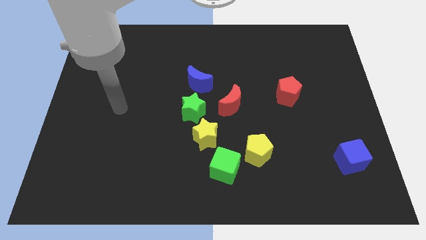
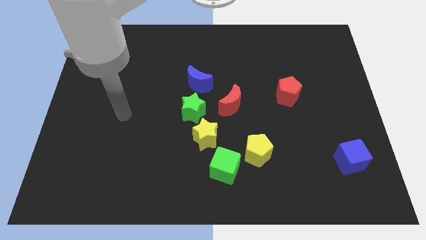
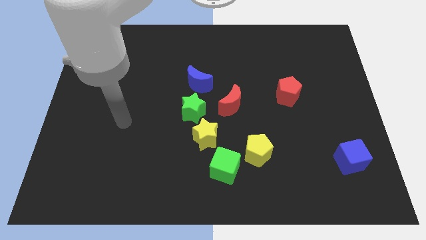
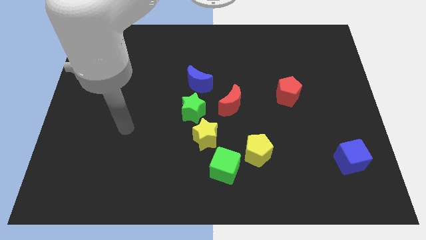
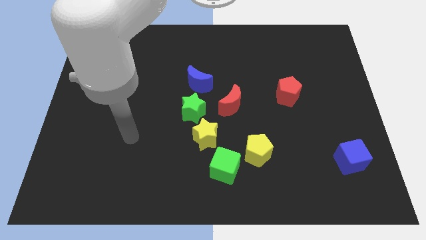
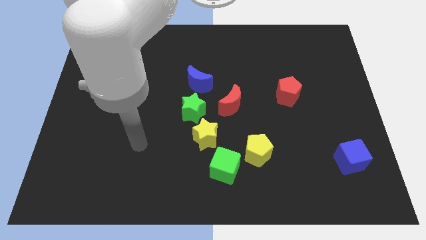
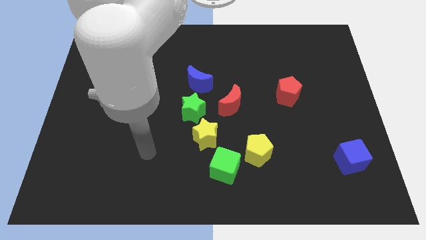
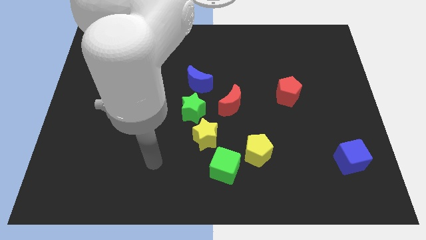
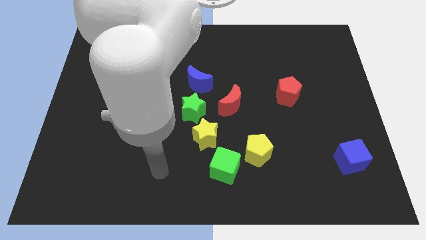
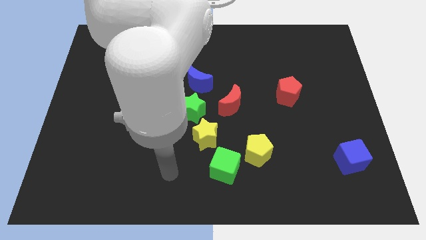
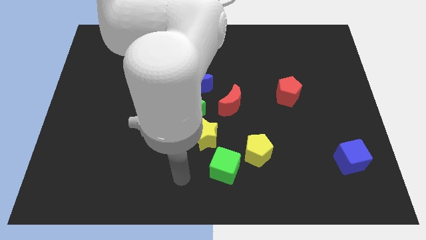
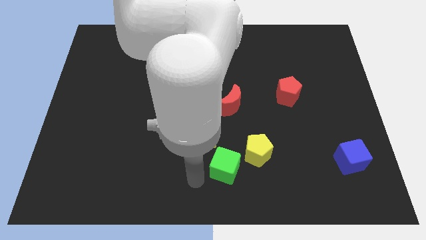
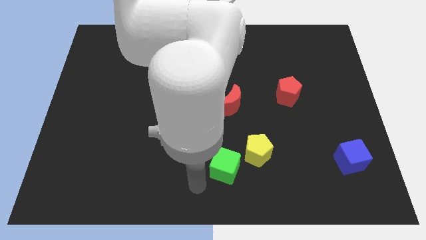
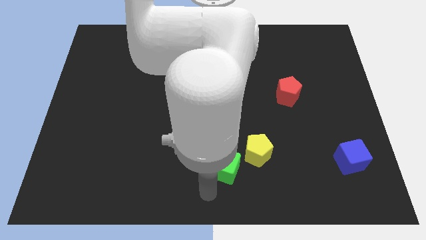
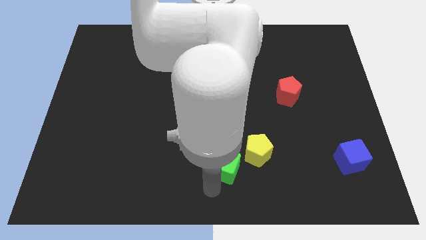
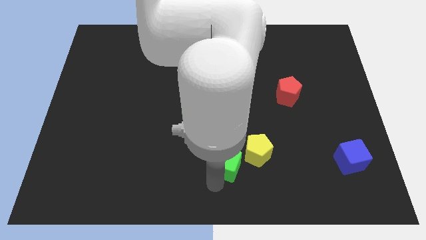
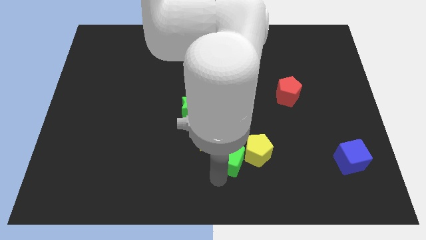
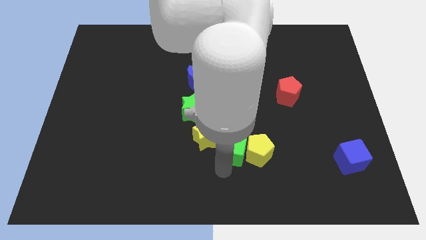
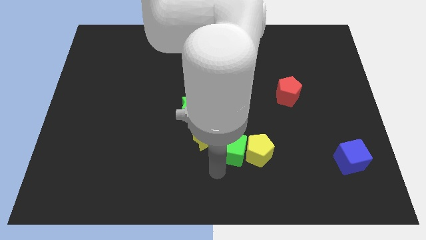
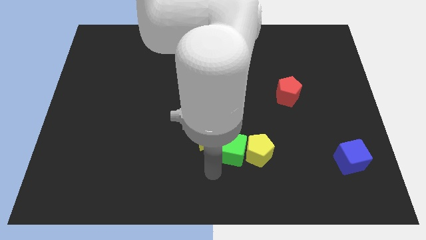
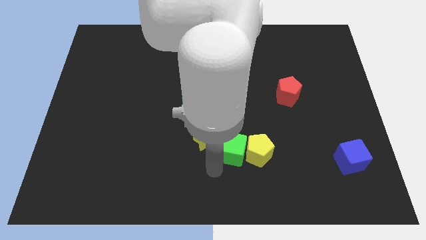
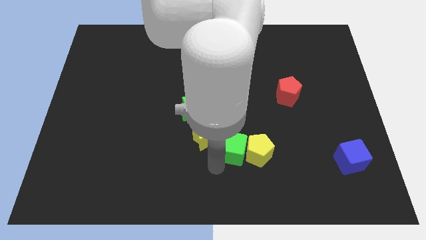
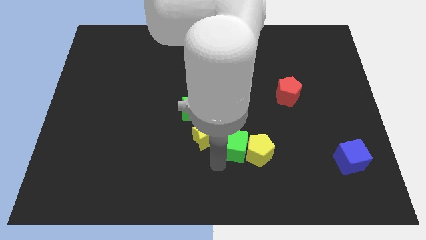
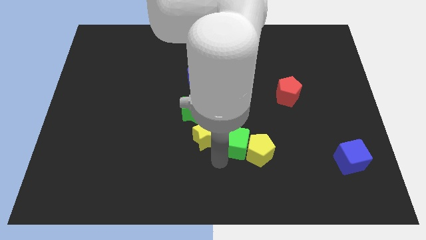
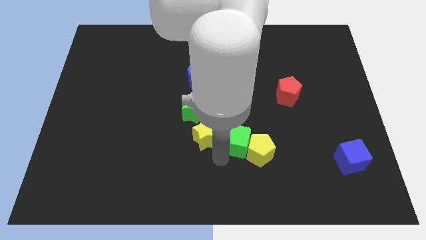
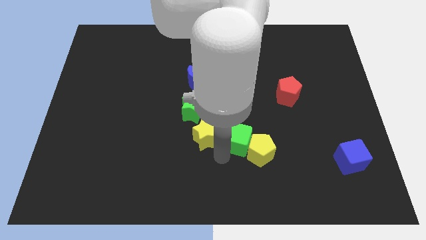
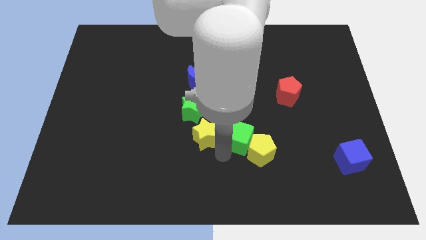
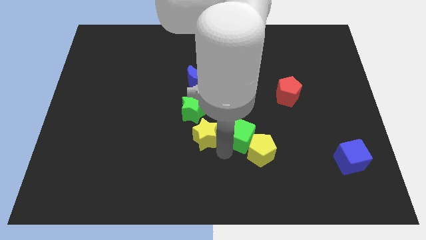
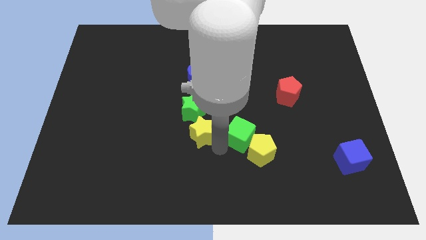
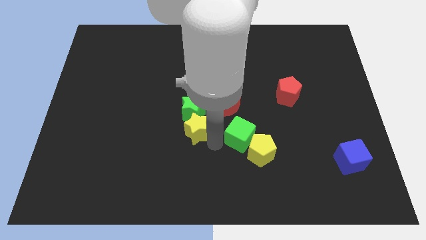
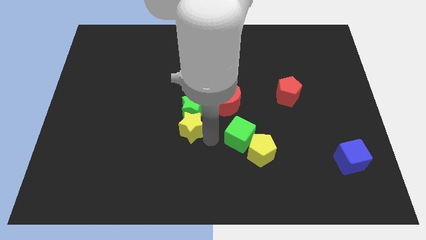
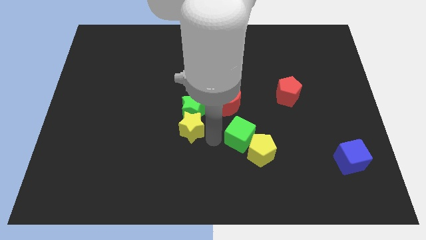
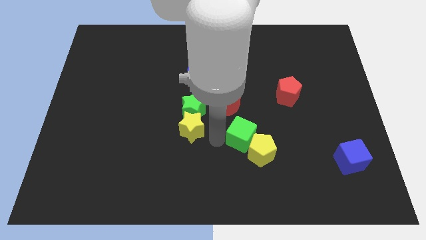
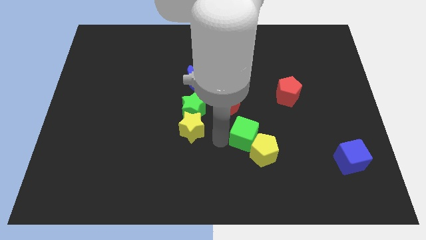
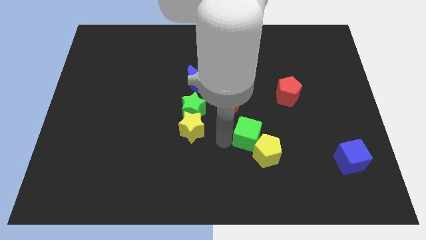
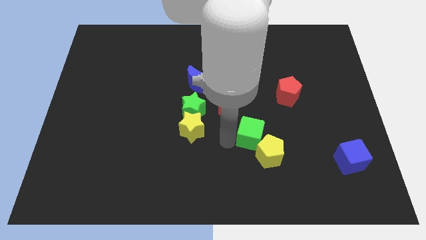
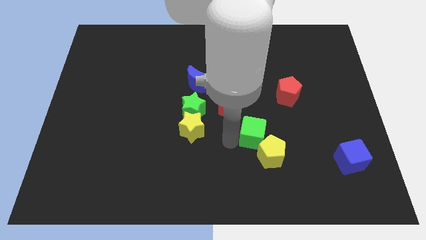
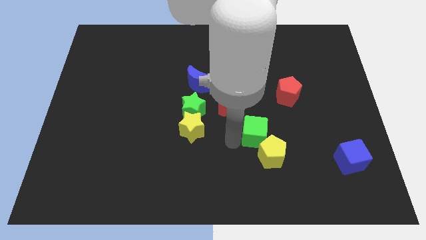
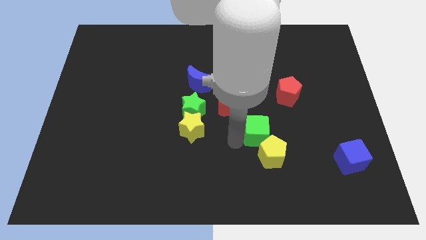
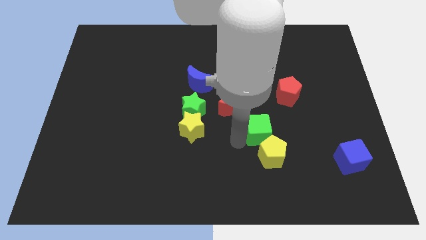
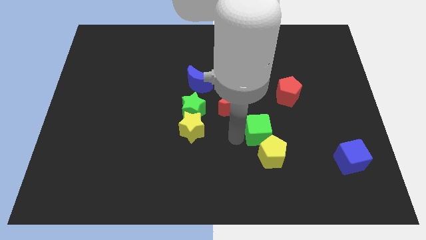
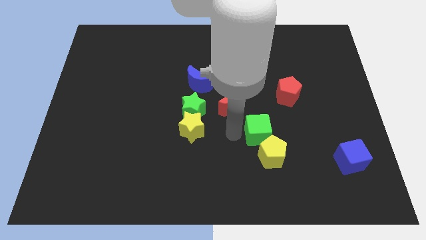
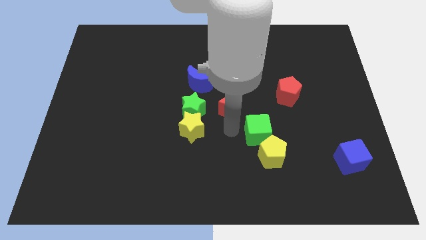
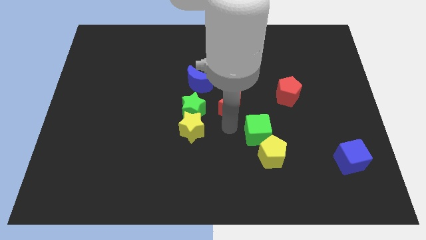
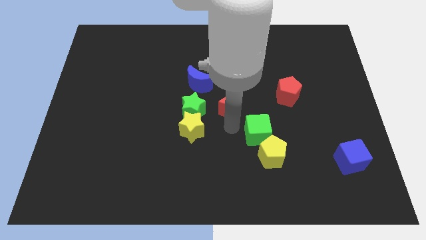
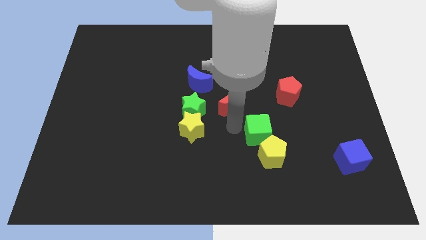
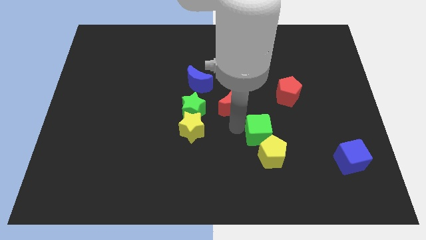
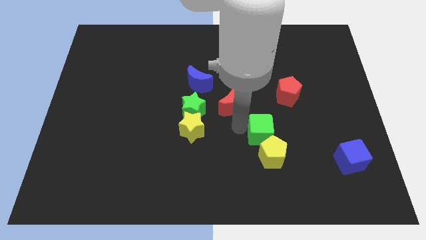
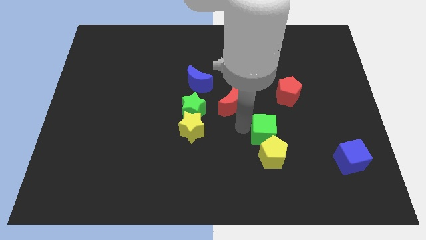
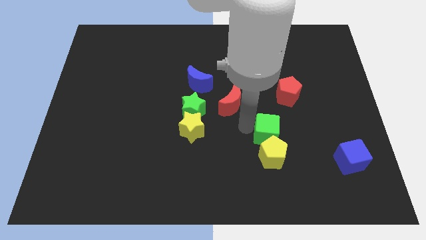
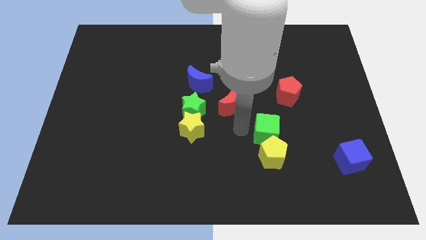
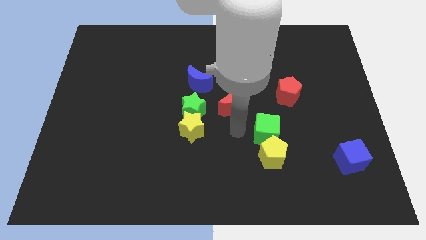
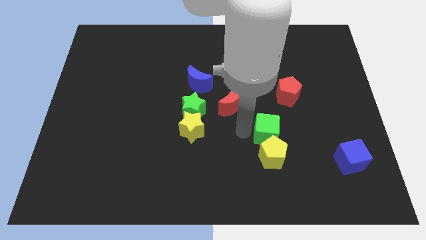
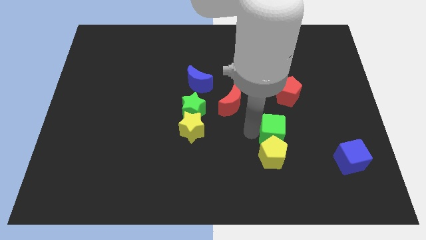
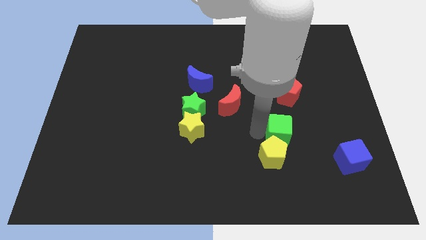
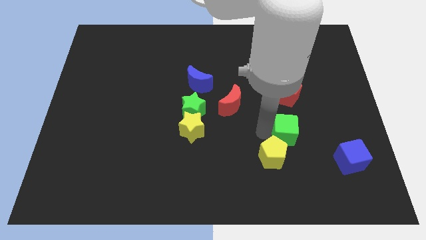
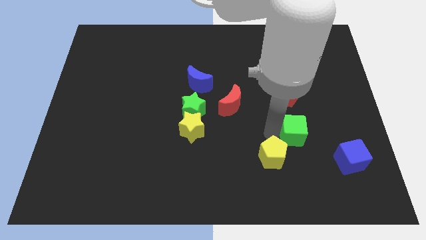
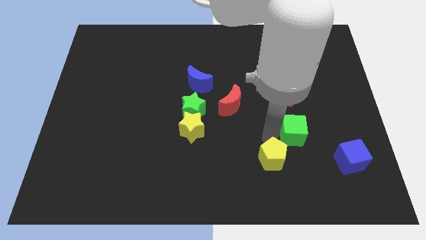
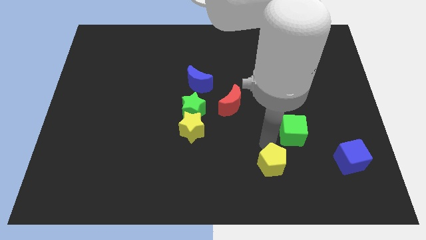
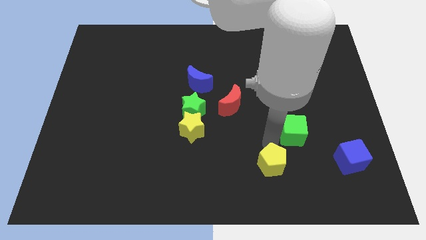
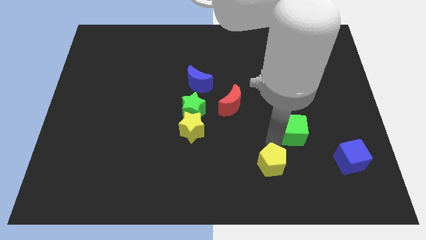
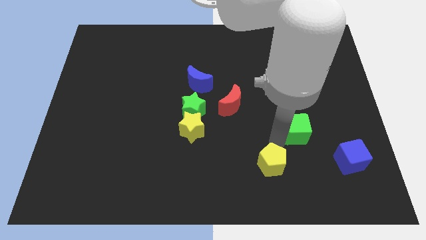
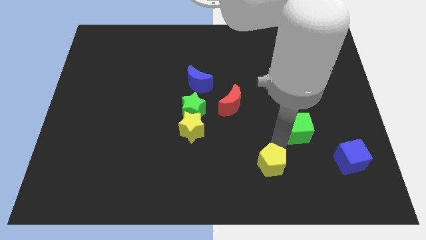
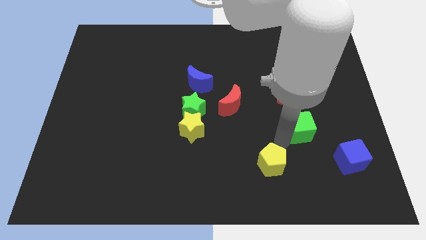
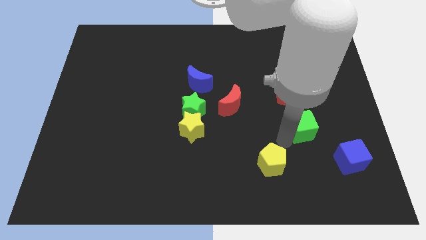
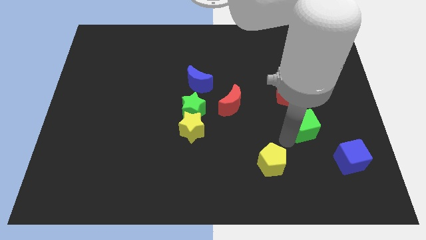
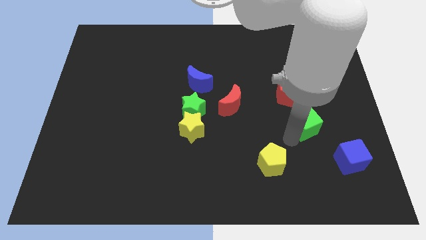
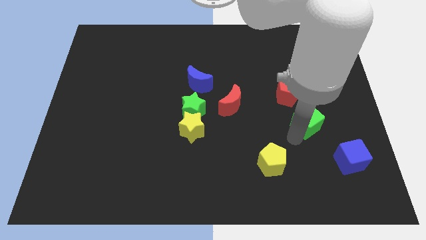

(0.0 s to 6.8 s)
move the green cube upwards and then to the right

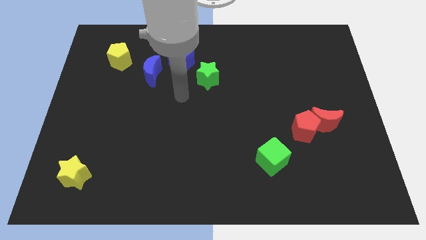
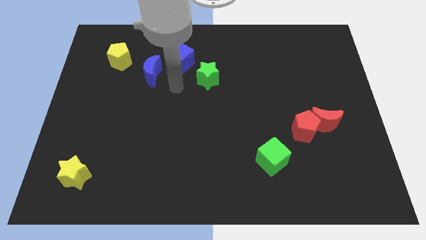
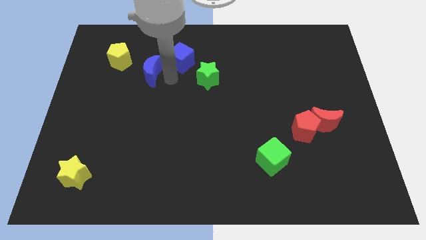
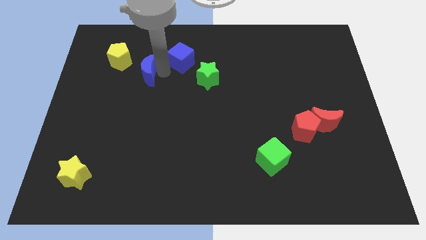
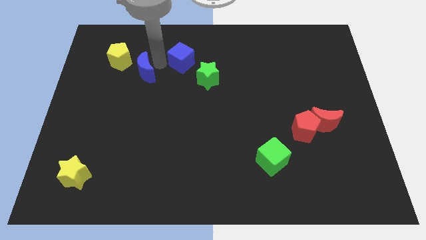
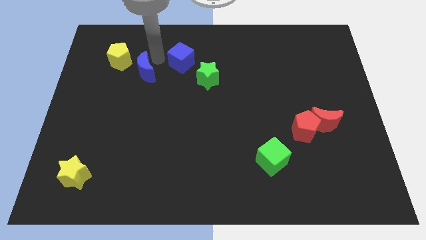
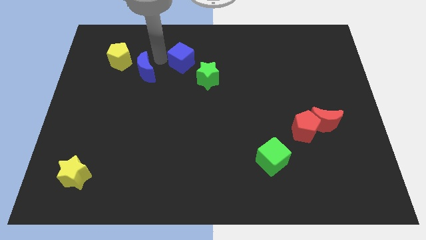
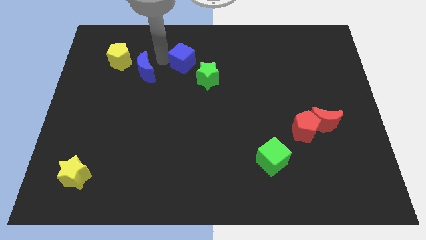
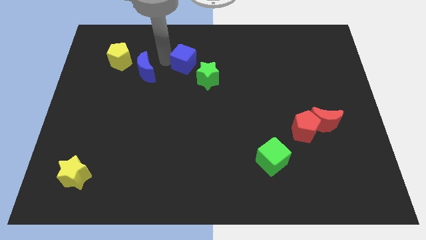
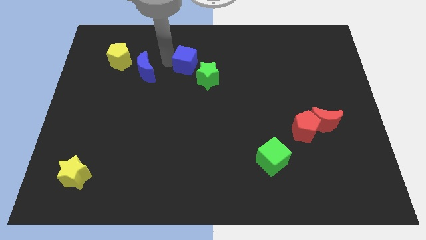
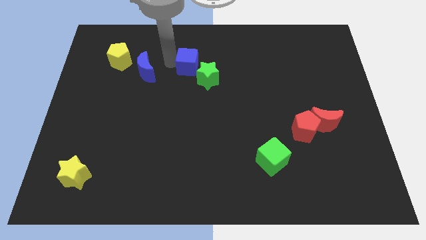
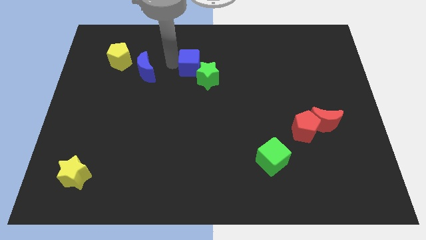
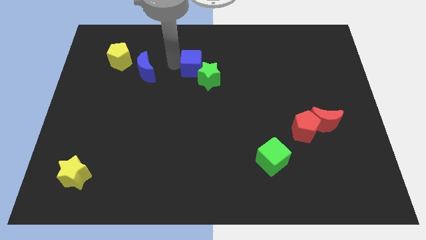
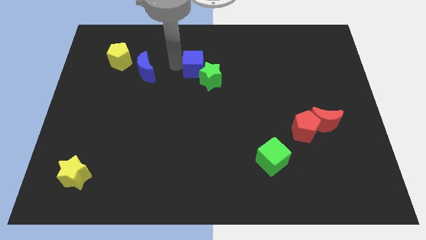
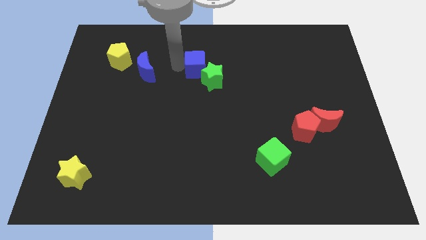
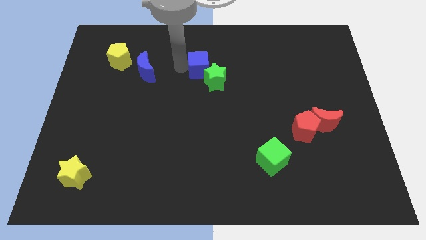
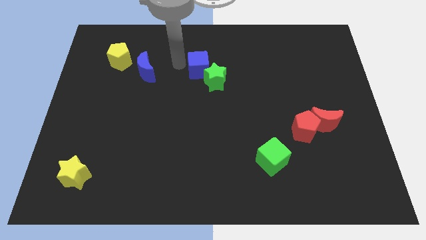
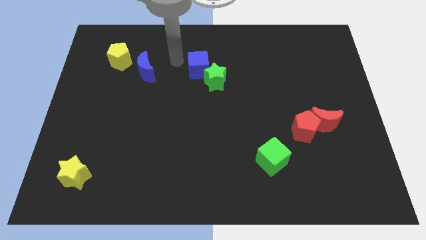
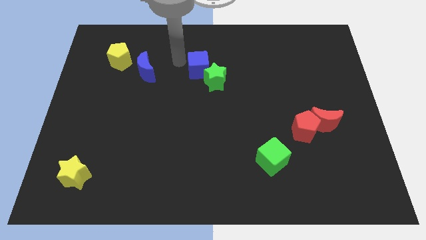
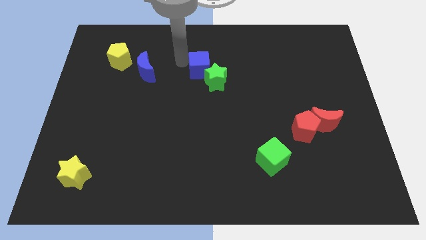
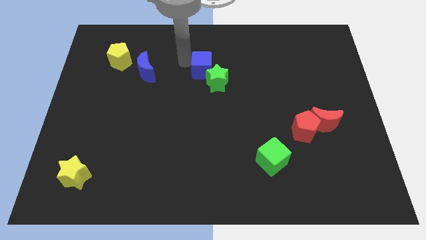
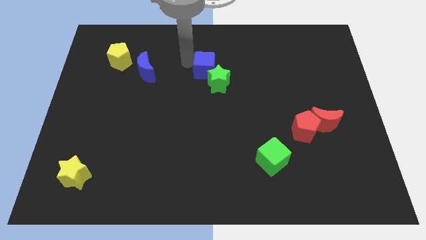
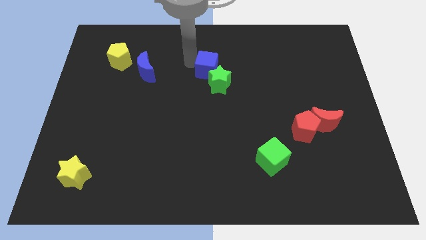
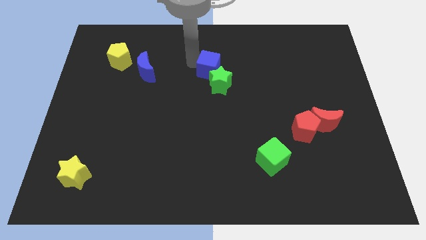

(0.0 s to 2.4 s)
slightly move the blue cube downwards and right
